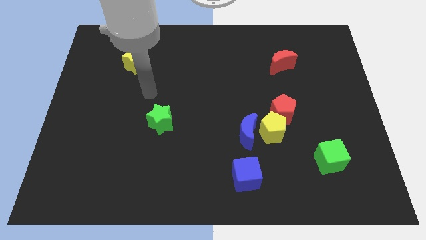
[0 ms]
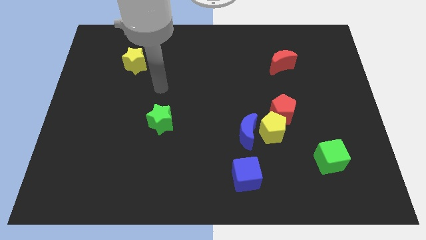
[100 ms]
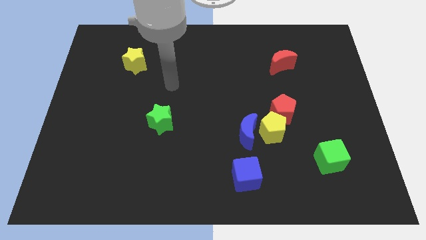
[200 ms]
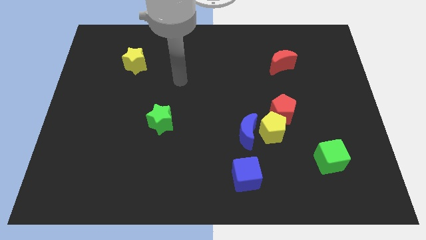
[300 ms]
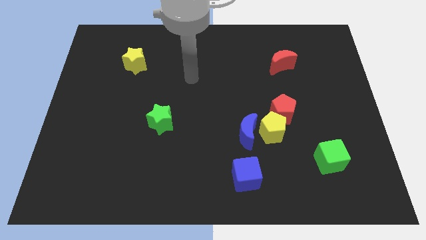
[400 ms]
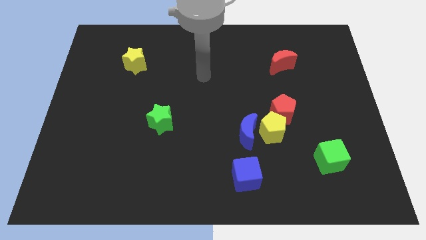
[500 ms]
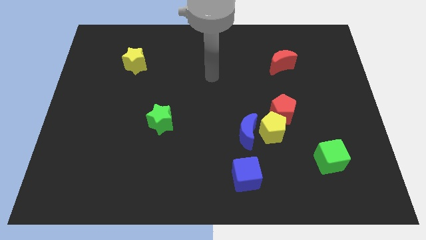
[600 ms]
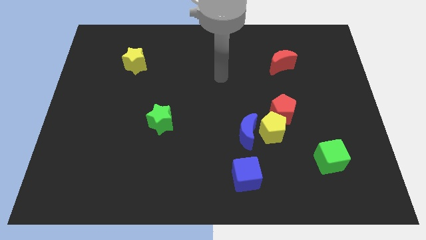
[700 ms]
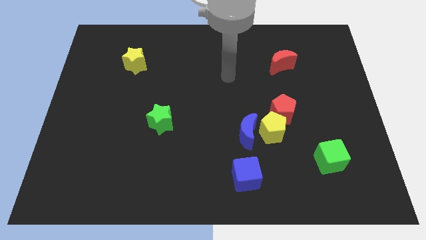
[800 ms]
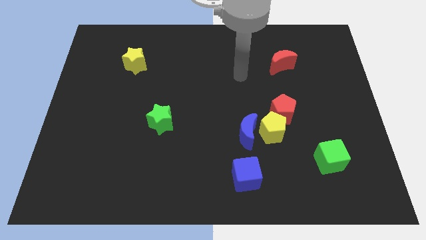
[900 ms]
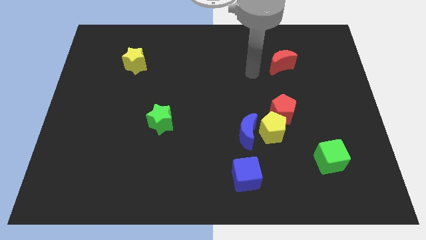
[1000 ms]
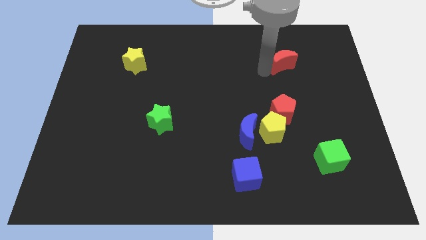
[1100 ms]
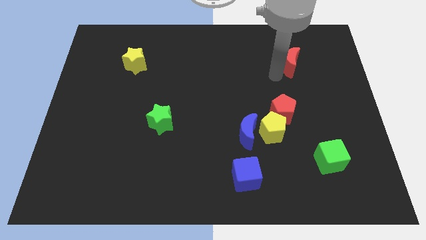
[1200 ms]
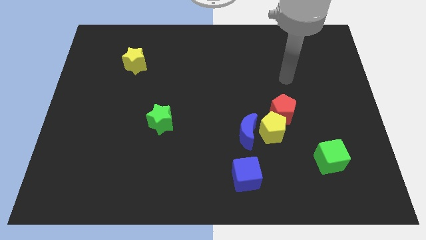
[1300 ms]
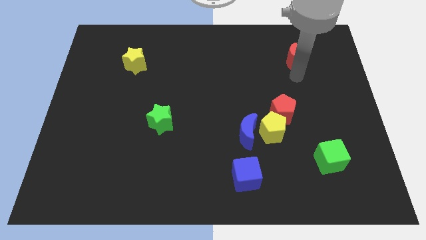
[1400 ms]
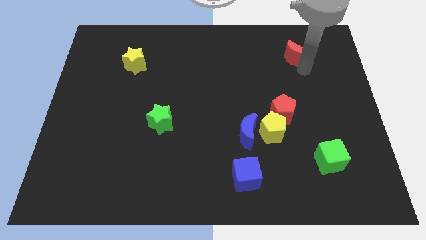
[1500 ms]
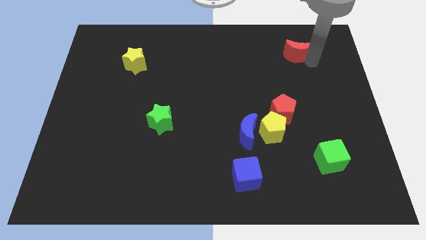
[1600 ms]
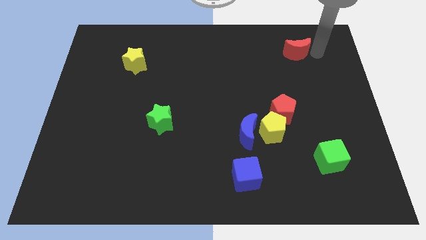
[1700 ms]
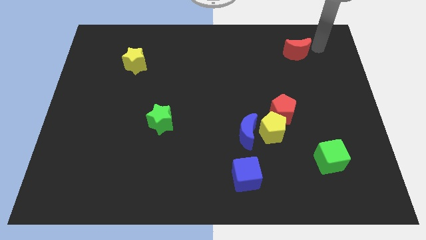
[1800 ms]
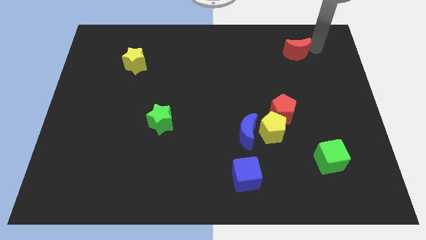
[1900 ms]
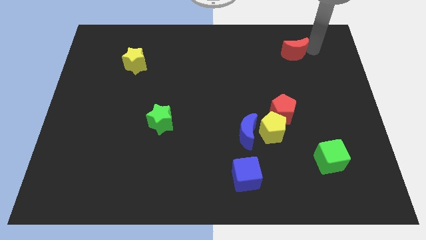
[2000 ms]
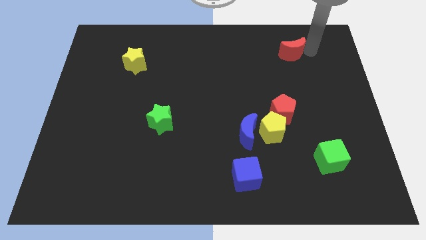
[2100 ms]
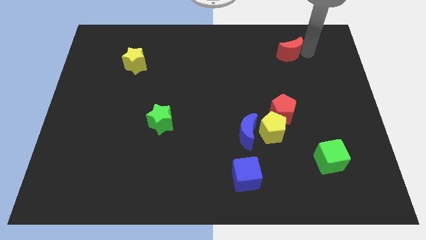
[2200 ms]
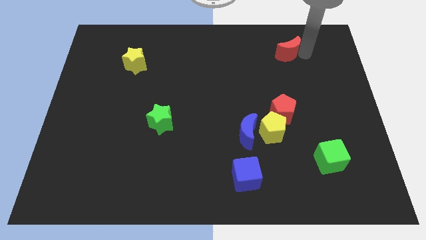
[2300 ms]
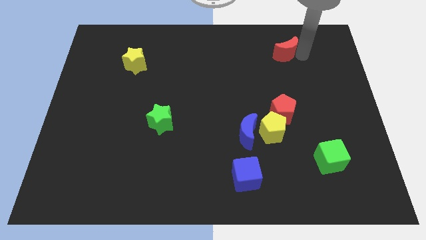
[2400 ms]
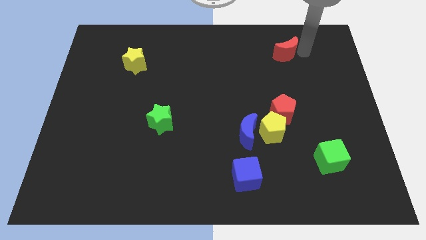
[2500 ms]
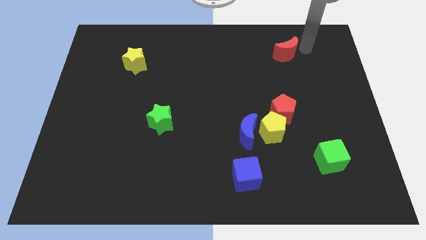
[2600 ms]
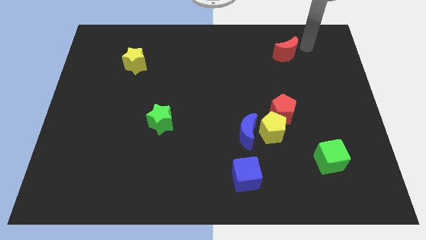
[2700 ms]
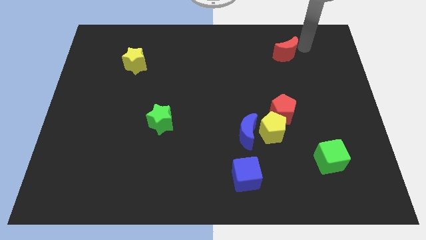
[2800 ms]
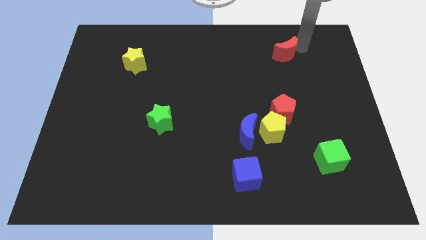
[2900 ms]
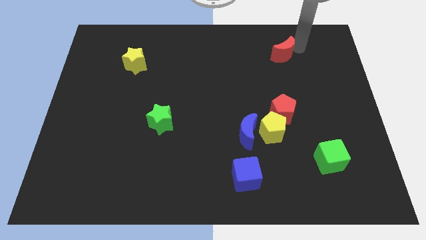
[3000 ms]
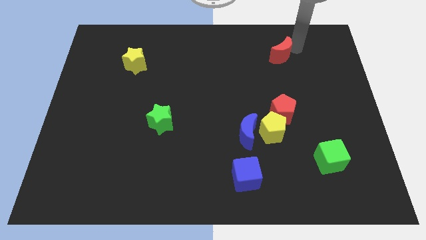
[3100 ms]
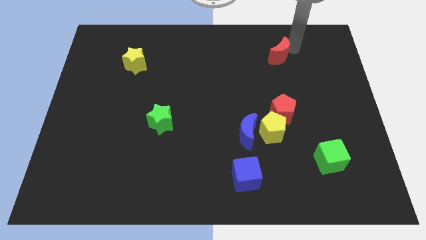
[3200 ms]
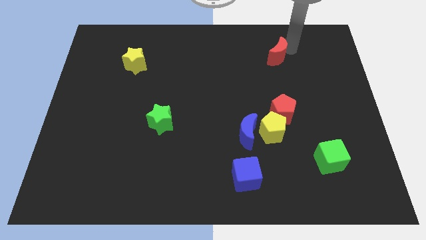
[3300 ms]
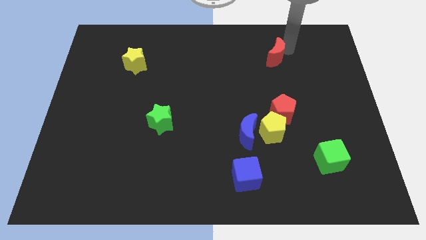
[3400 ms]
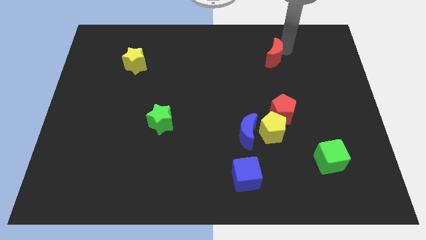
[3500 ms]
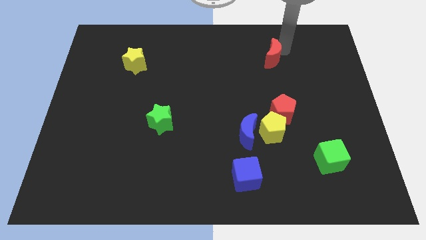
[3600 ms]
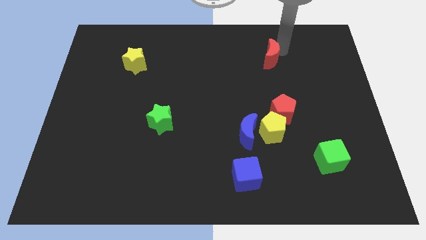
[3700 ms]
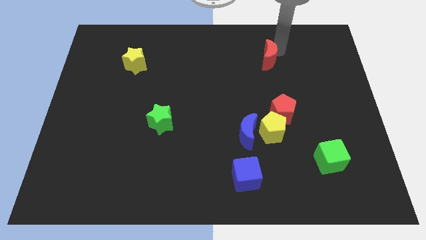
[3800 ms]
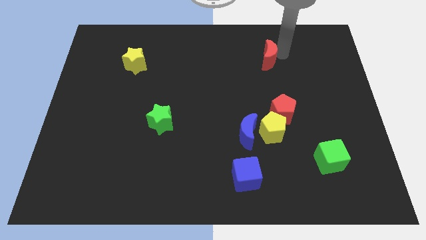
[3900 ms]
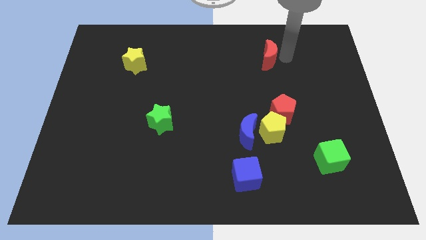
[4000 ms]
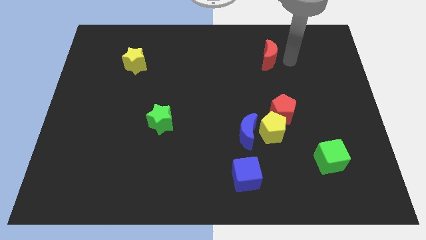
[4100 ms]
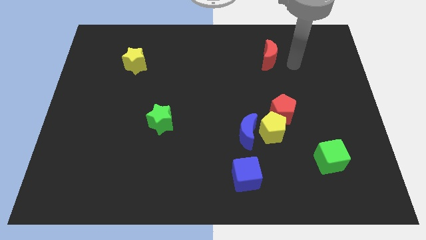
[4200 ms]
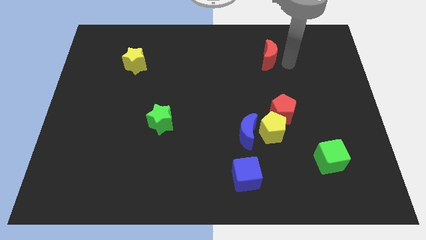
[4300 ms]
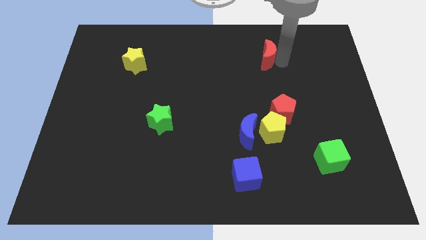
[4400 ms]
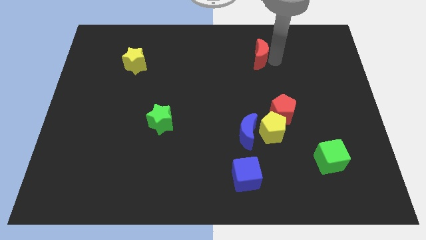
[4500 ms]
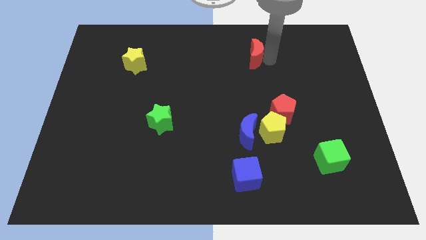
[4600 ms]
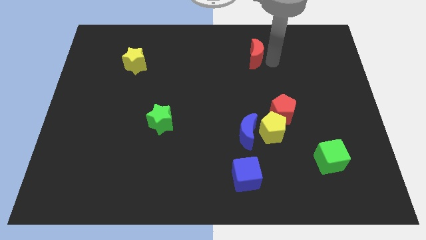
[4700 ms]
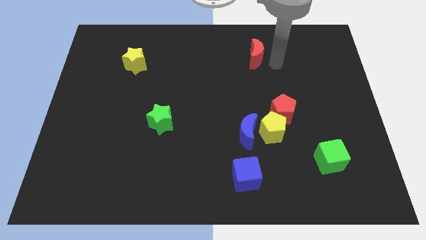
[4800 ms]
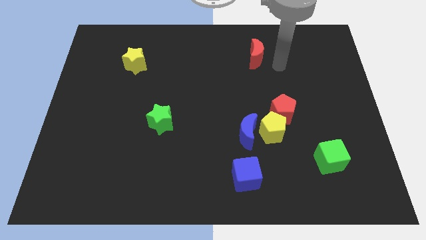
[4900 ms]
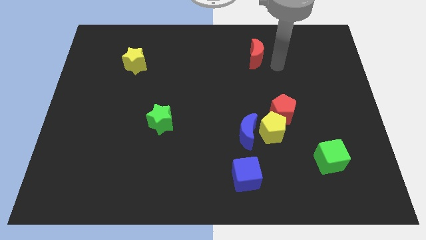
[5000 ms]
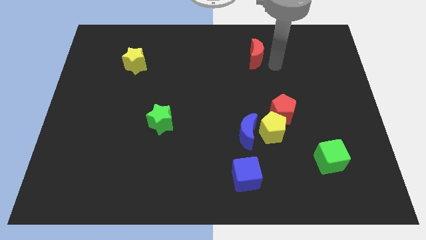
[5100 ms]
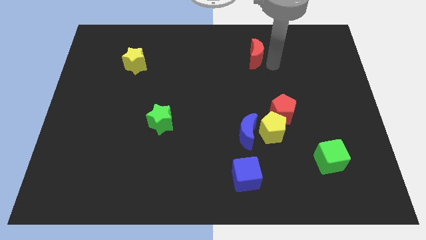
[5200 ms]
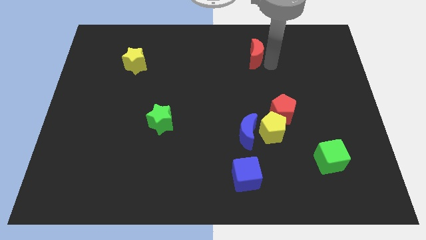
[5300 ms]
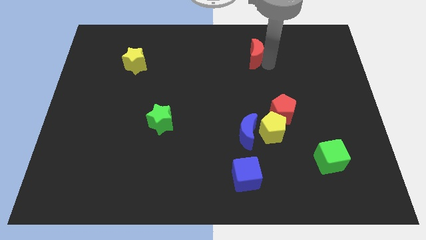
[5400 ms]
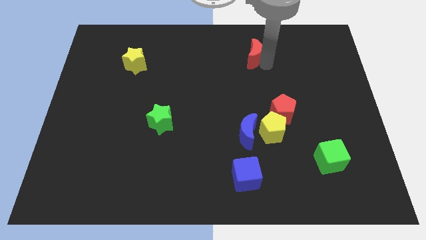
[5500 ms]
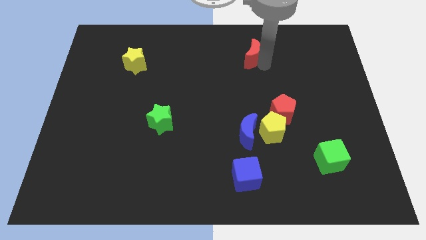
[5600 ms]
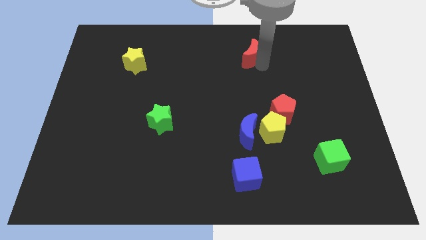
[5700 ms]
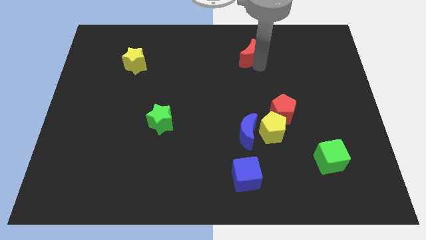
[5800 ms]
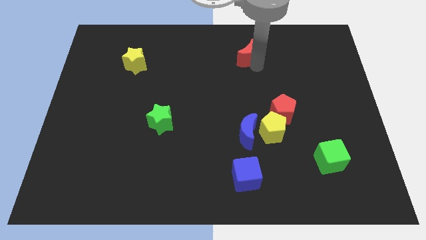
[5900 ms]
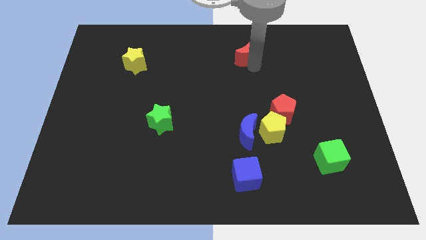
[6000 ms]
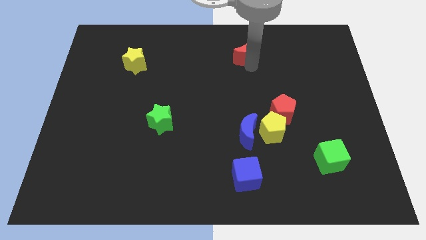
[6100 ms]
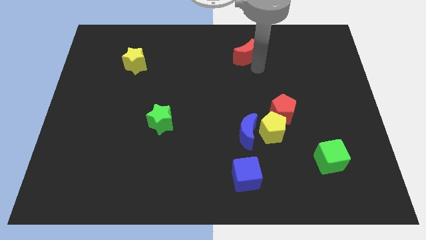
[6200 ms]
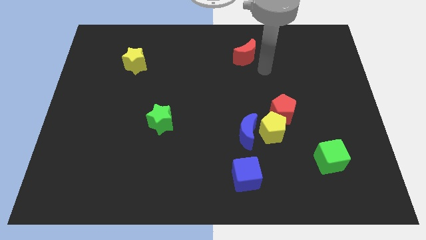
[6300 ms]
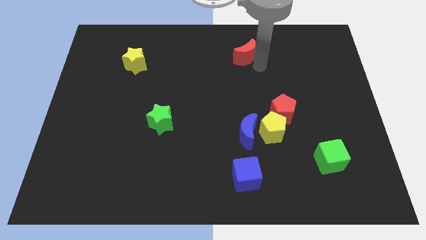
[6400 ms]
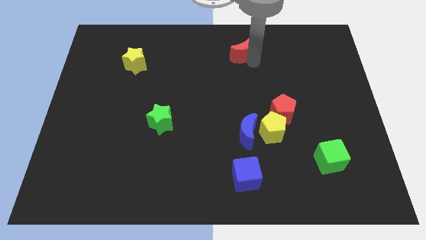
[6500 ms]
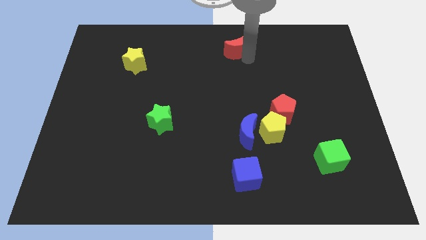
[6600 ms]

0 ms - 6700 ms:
move the red moon to the towards your base
